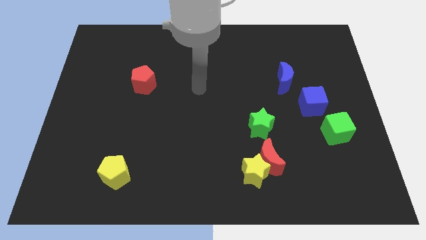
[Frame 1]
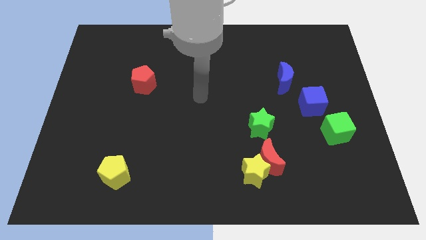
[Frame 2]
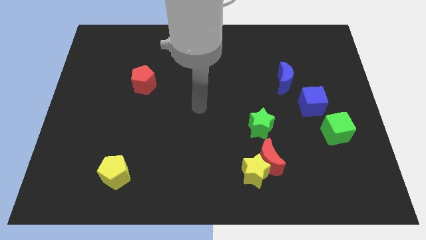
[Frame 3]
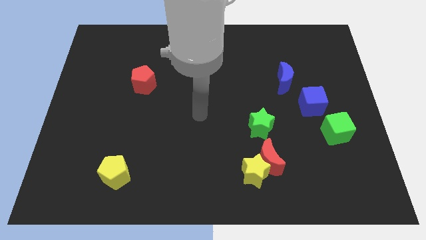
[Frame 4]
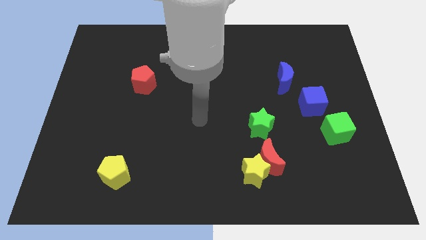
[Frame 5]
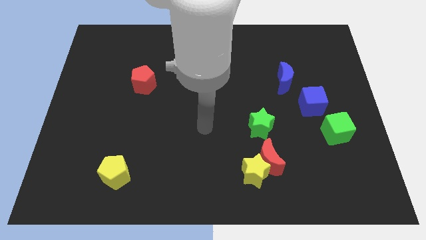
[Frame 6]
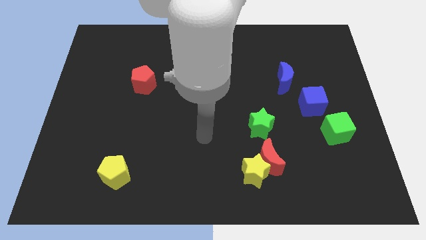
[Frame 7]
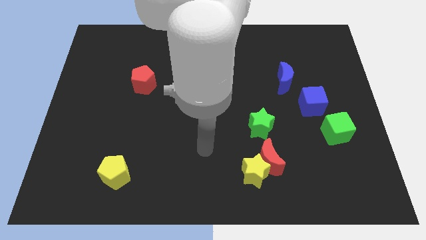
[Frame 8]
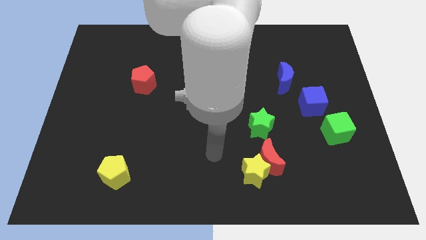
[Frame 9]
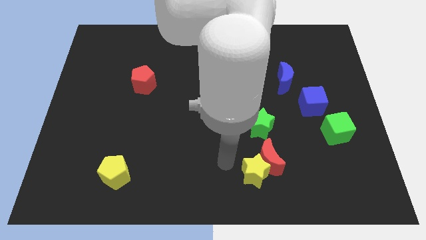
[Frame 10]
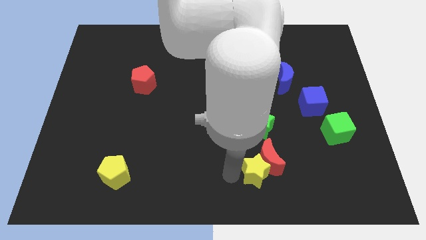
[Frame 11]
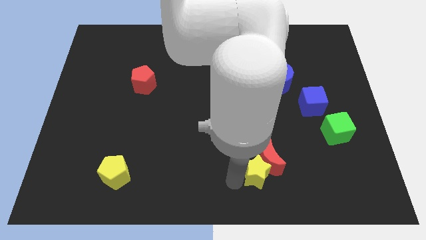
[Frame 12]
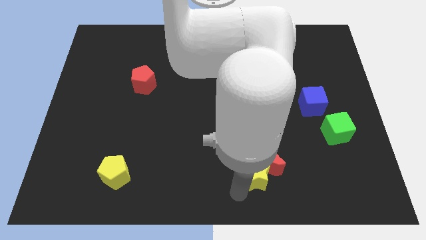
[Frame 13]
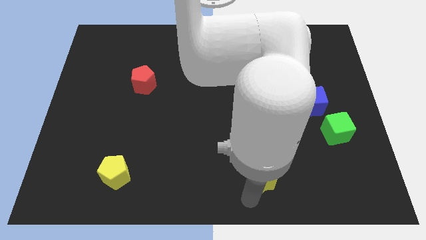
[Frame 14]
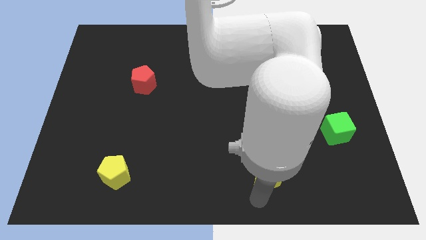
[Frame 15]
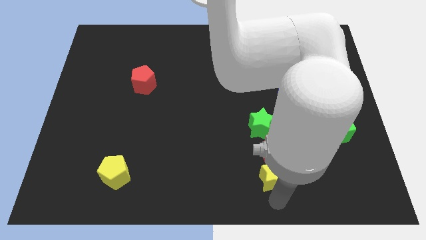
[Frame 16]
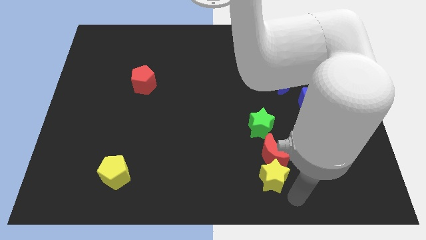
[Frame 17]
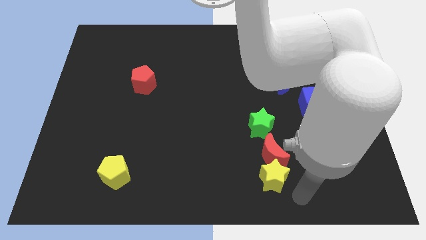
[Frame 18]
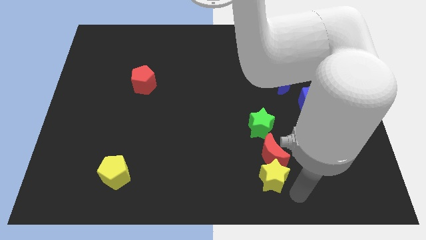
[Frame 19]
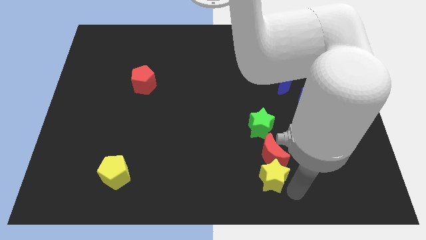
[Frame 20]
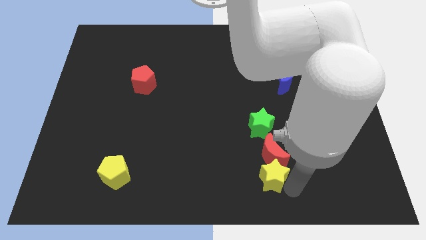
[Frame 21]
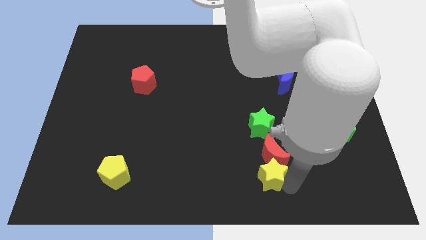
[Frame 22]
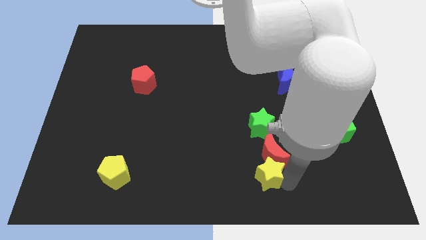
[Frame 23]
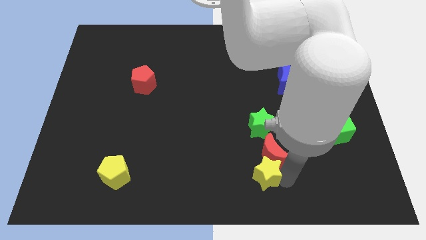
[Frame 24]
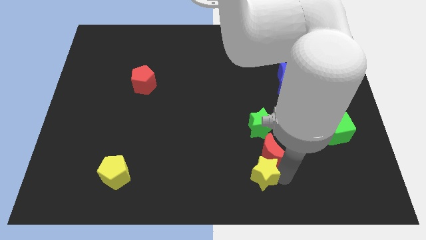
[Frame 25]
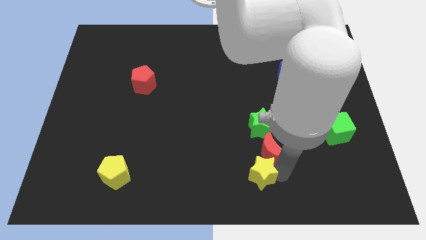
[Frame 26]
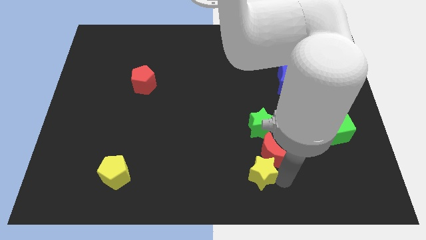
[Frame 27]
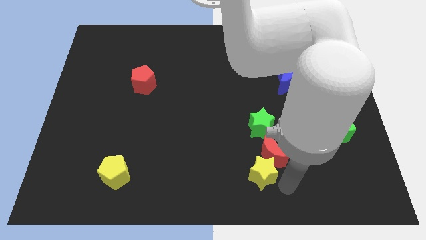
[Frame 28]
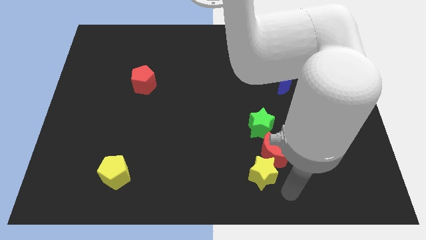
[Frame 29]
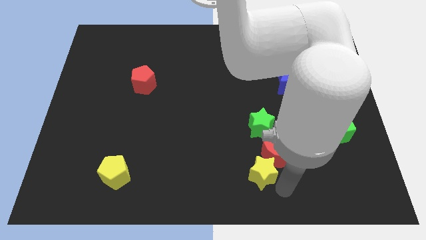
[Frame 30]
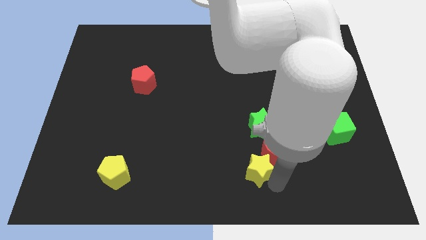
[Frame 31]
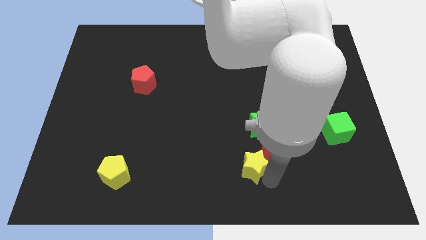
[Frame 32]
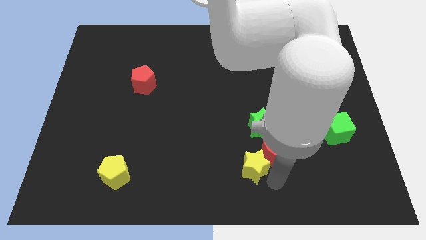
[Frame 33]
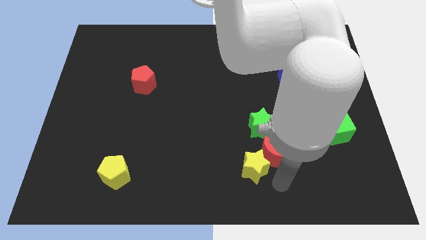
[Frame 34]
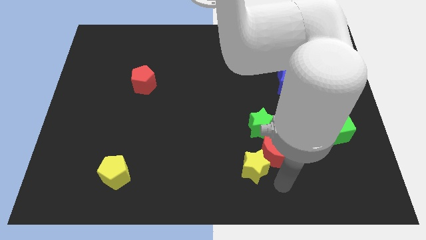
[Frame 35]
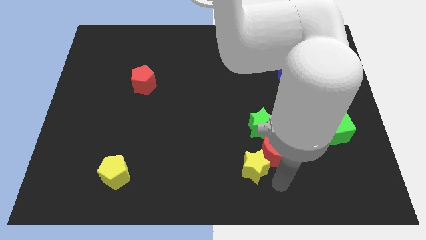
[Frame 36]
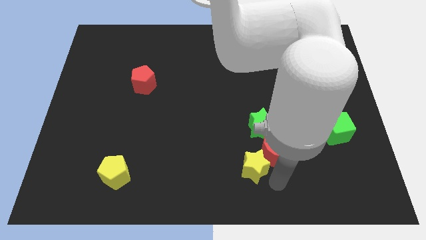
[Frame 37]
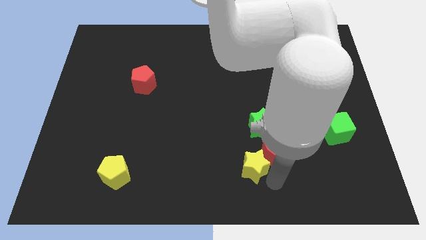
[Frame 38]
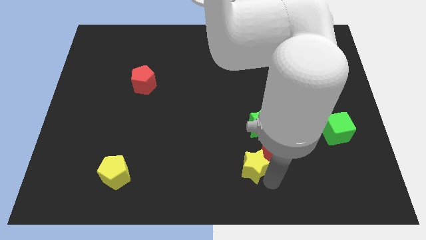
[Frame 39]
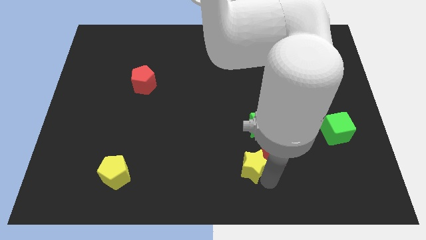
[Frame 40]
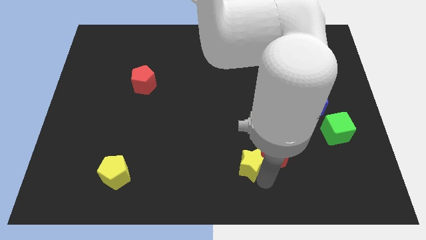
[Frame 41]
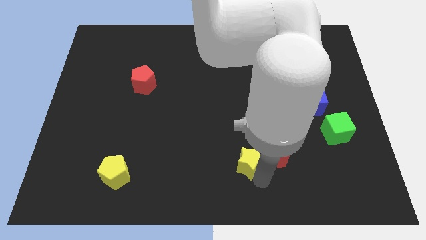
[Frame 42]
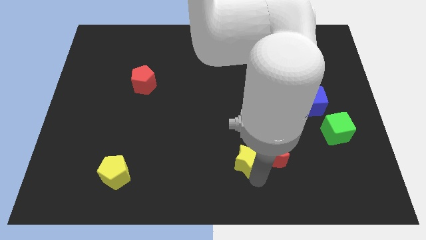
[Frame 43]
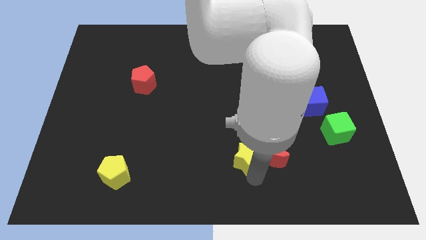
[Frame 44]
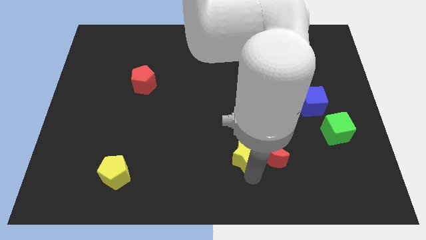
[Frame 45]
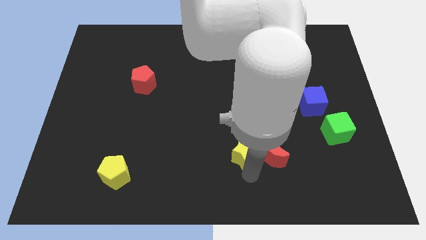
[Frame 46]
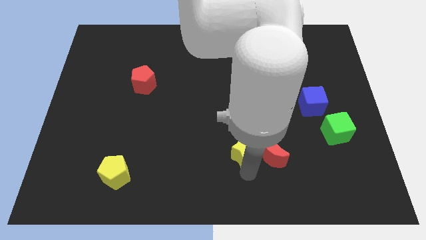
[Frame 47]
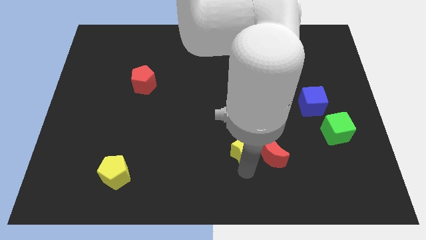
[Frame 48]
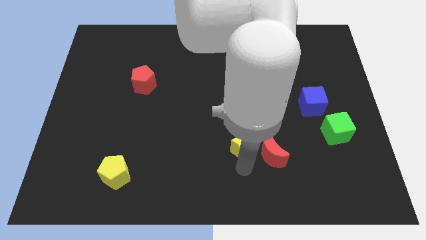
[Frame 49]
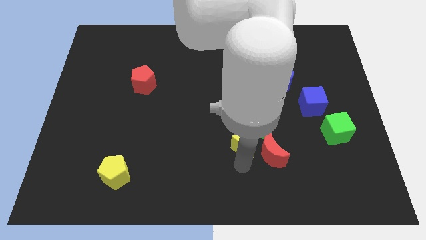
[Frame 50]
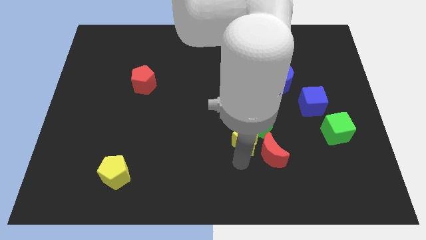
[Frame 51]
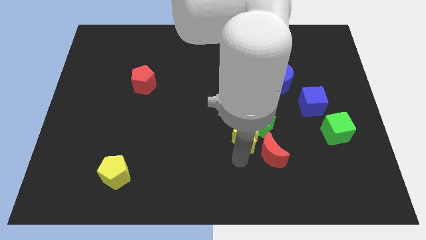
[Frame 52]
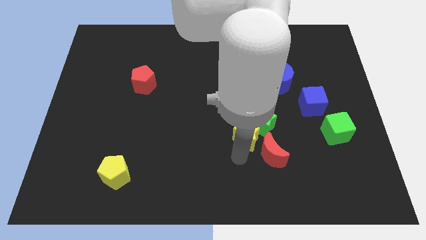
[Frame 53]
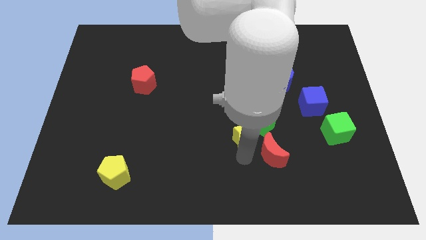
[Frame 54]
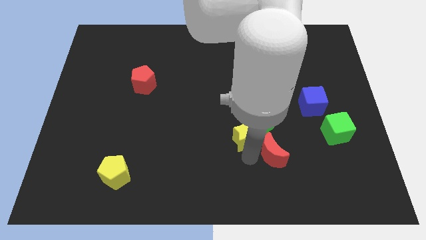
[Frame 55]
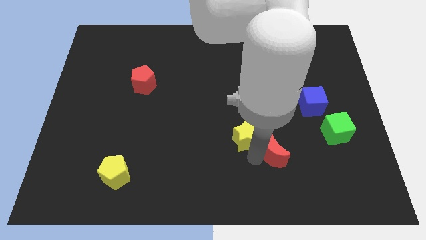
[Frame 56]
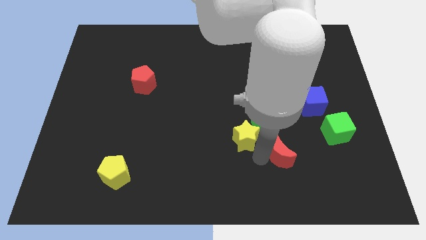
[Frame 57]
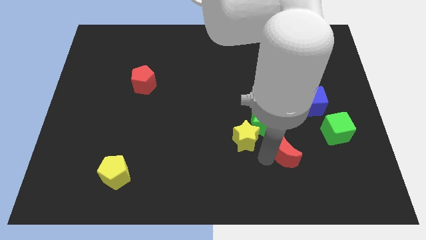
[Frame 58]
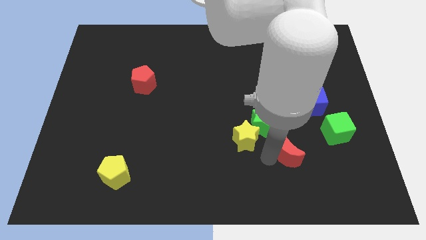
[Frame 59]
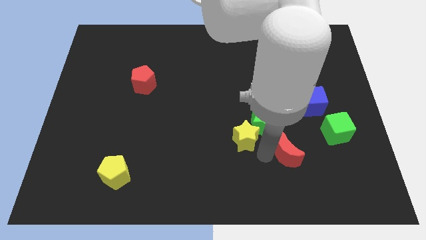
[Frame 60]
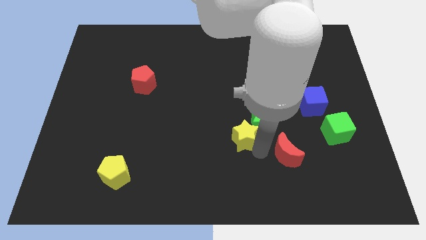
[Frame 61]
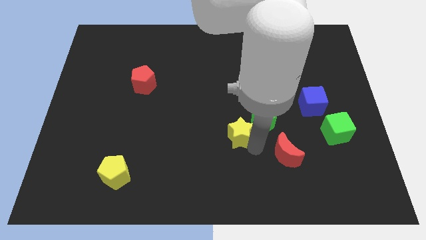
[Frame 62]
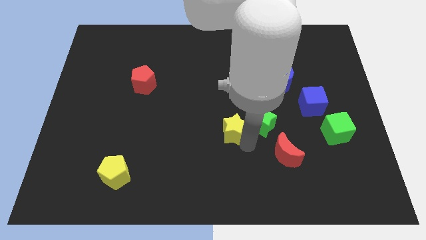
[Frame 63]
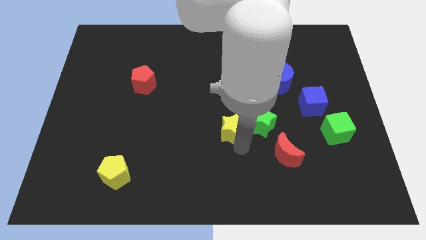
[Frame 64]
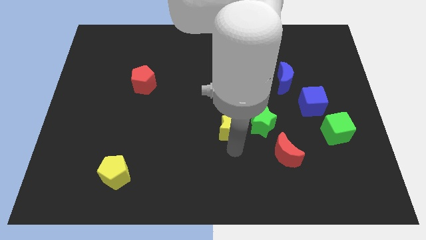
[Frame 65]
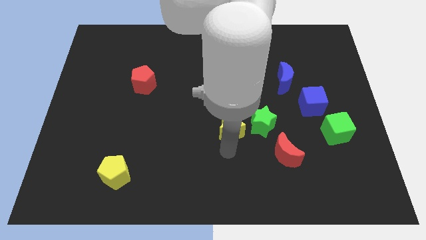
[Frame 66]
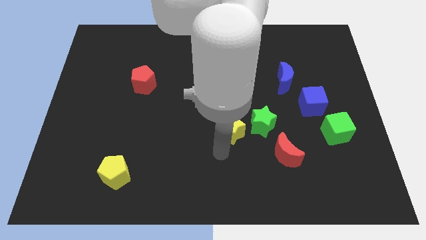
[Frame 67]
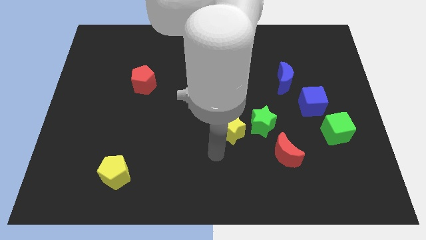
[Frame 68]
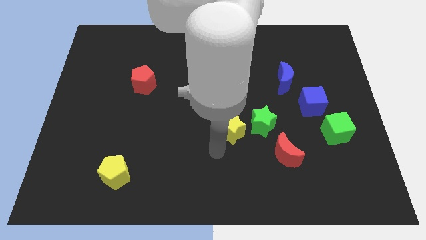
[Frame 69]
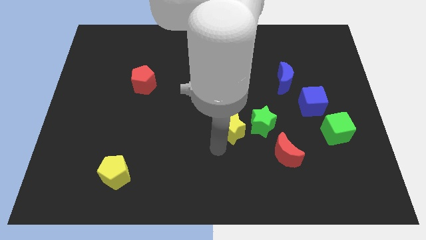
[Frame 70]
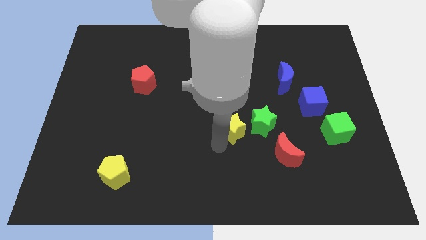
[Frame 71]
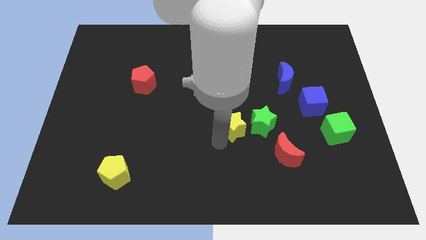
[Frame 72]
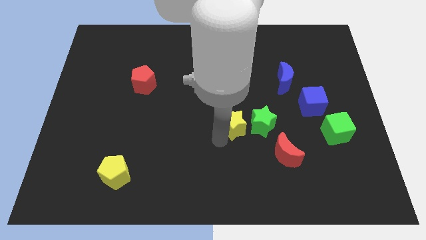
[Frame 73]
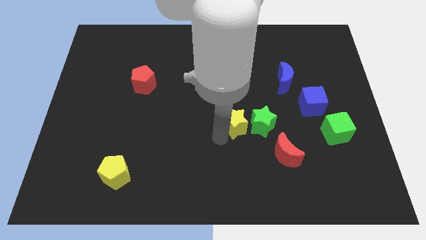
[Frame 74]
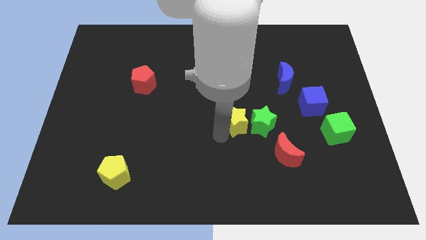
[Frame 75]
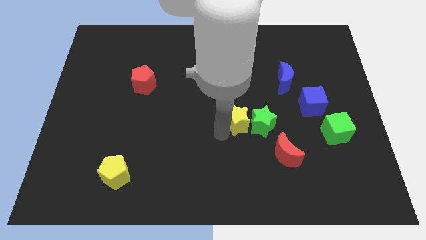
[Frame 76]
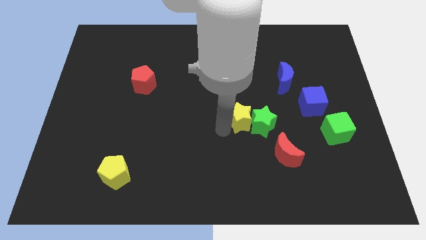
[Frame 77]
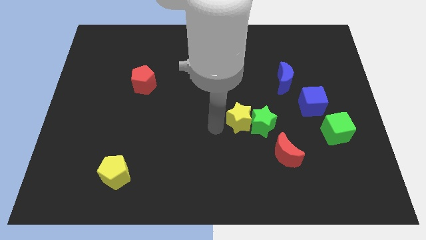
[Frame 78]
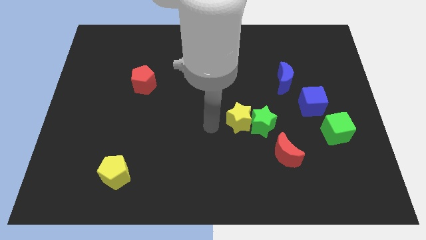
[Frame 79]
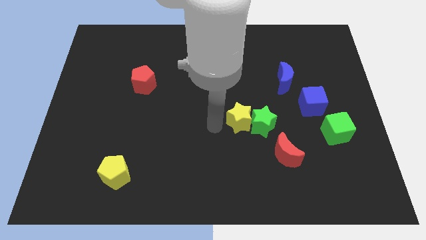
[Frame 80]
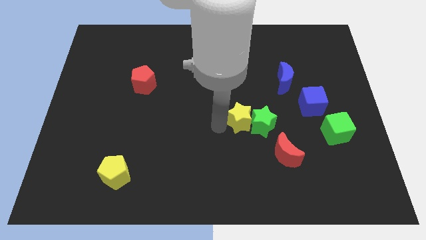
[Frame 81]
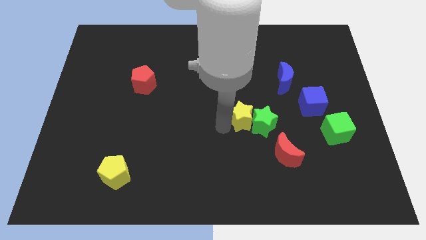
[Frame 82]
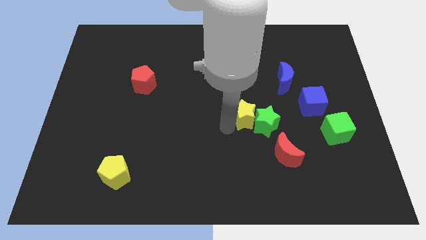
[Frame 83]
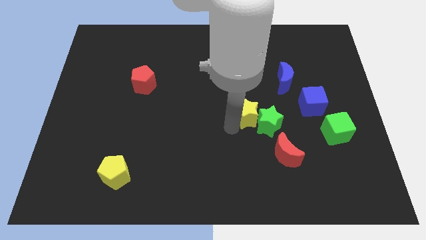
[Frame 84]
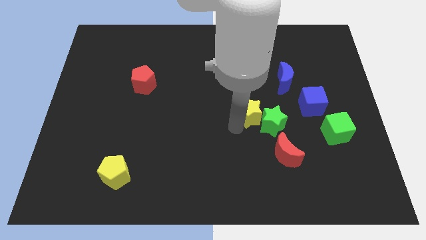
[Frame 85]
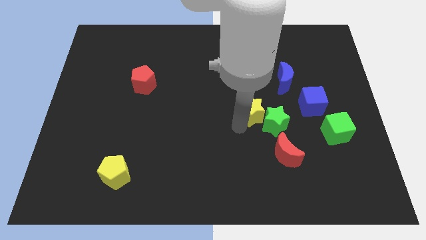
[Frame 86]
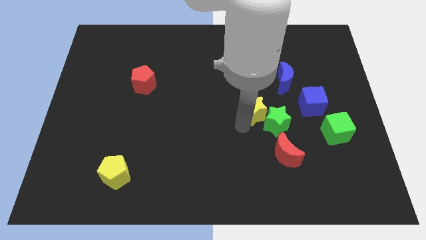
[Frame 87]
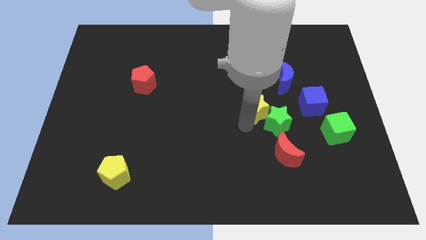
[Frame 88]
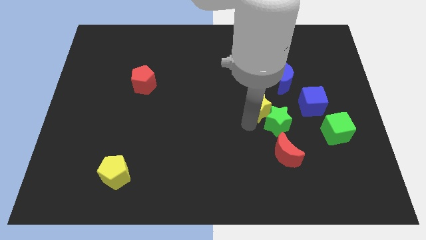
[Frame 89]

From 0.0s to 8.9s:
push the yellow star above the red moon
